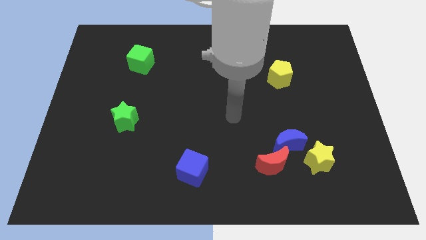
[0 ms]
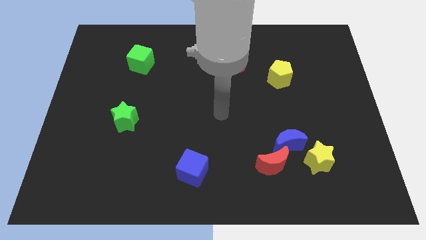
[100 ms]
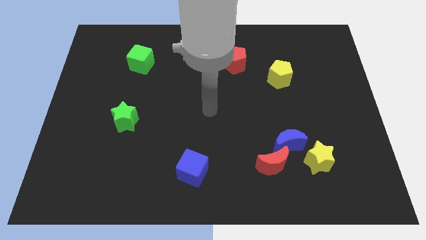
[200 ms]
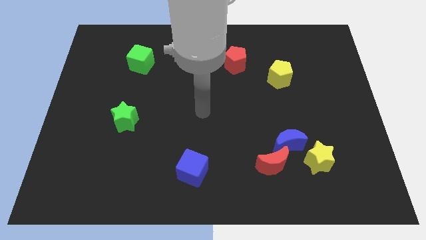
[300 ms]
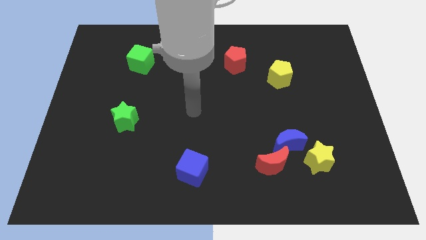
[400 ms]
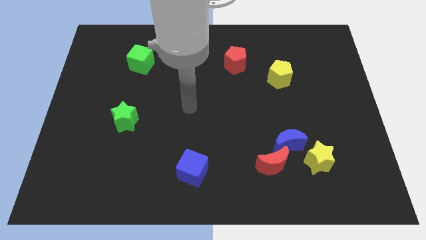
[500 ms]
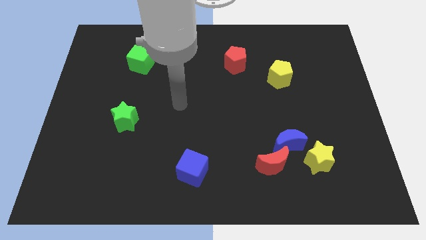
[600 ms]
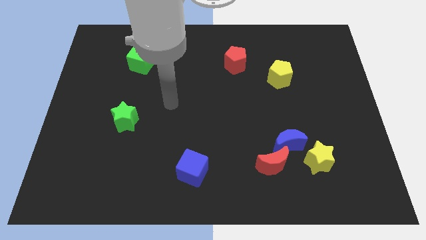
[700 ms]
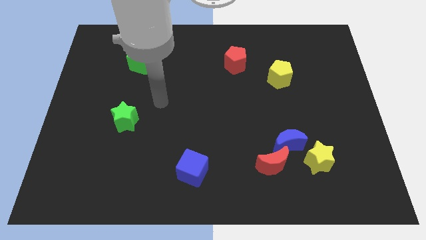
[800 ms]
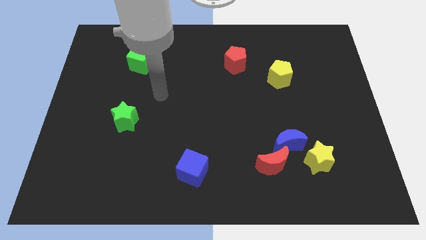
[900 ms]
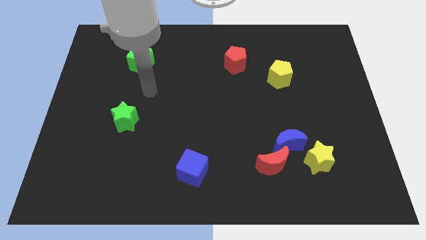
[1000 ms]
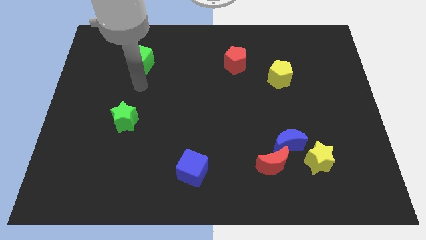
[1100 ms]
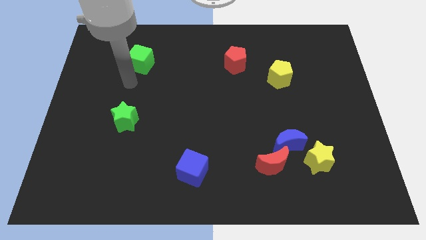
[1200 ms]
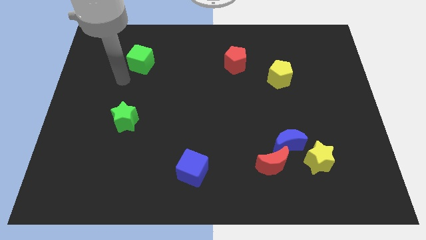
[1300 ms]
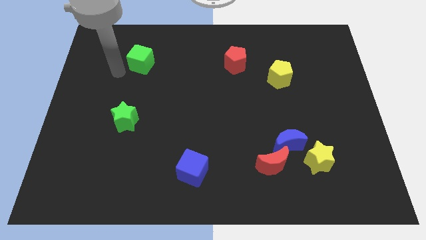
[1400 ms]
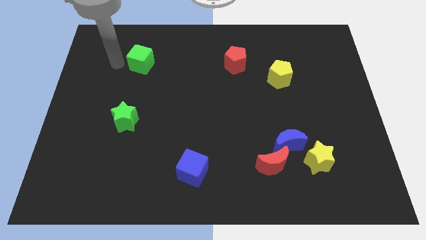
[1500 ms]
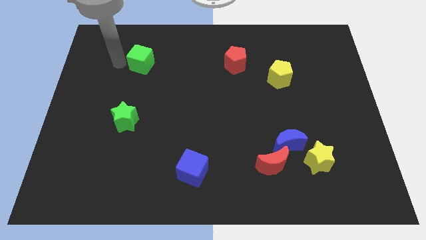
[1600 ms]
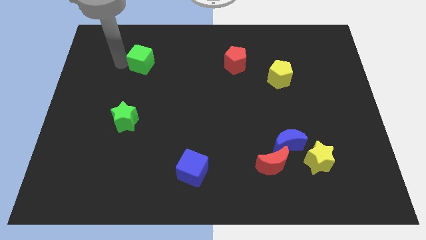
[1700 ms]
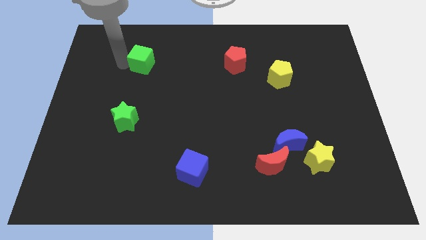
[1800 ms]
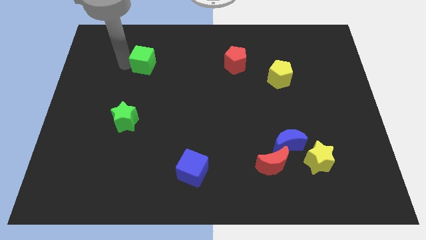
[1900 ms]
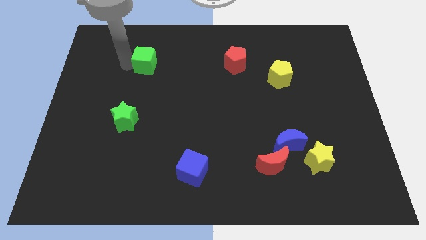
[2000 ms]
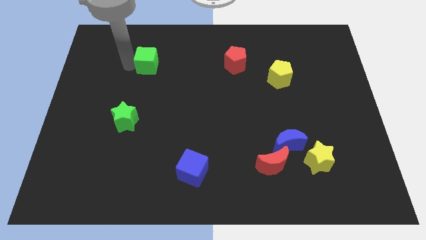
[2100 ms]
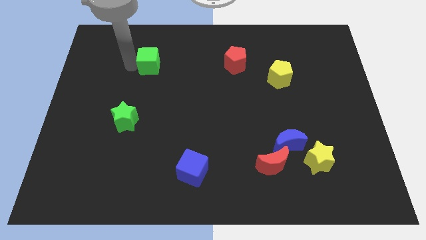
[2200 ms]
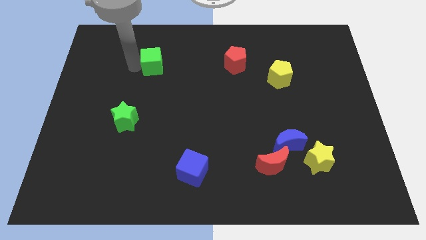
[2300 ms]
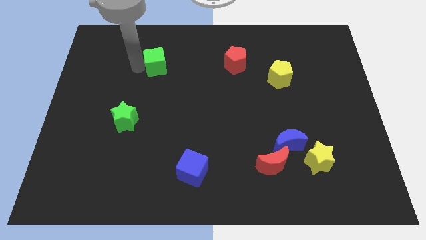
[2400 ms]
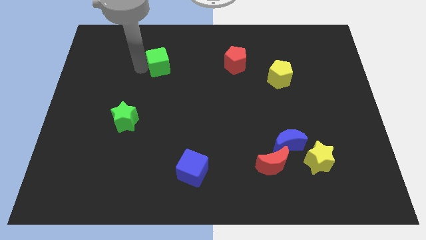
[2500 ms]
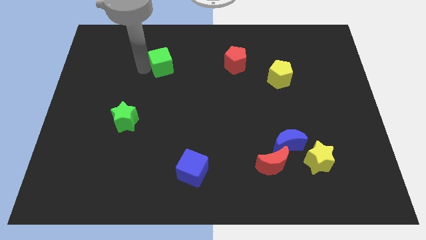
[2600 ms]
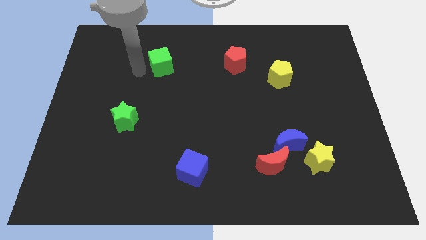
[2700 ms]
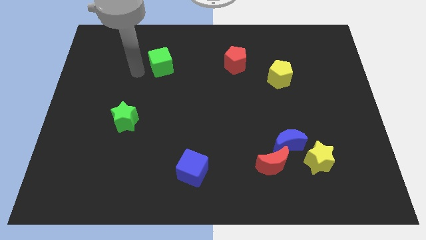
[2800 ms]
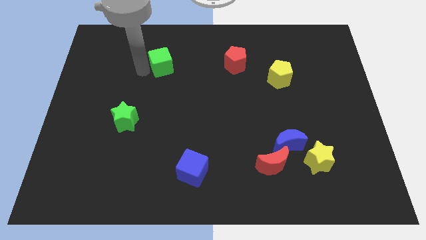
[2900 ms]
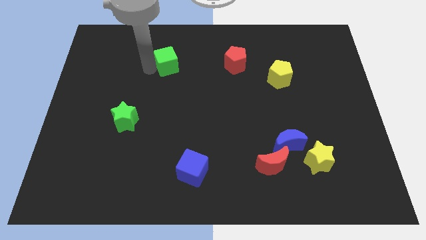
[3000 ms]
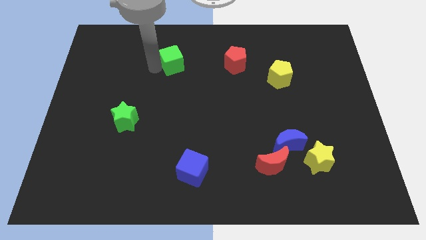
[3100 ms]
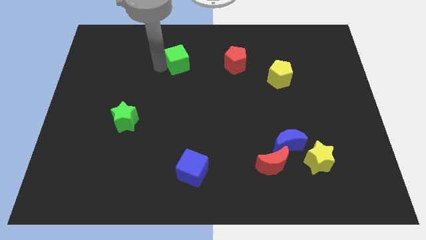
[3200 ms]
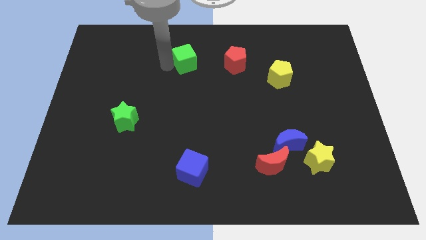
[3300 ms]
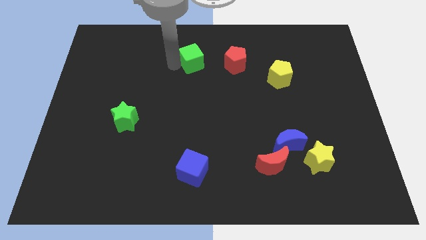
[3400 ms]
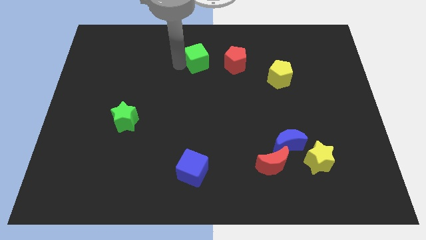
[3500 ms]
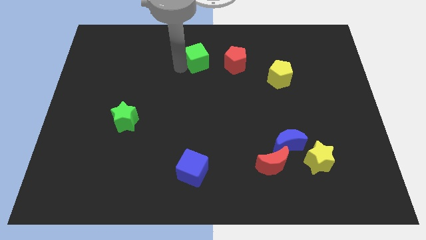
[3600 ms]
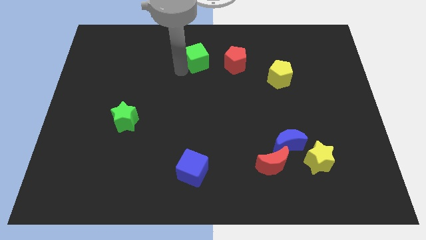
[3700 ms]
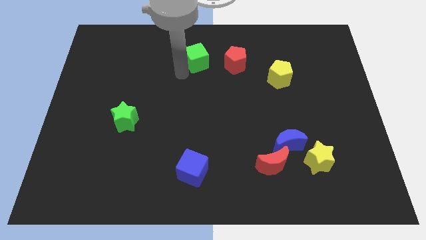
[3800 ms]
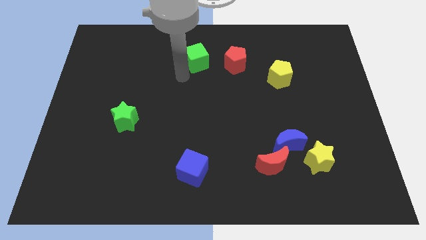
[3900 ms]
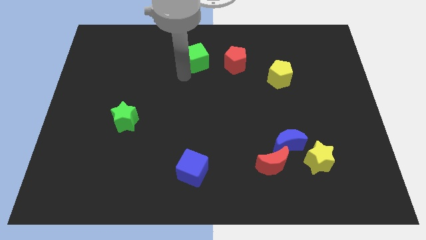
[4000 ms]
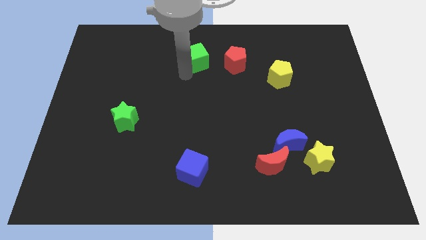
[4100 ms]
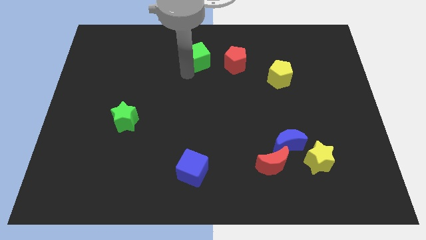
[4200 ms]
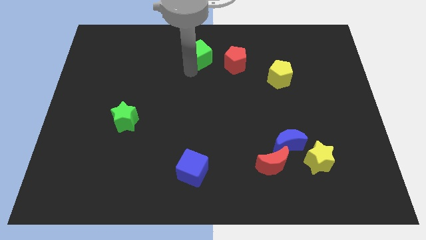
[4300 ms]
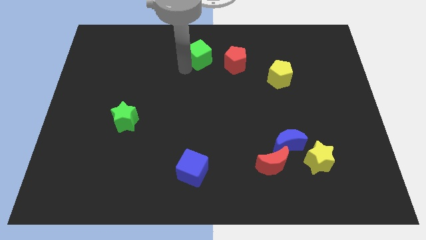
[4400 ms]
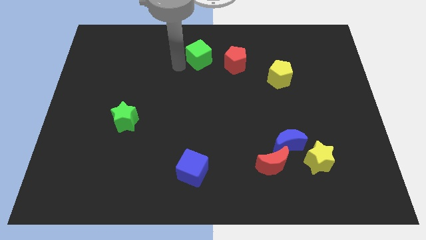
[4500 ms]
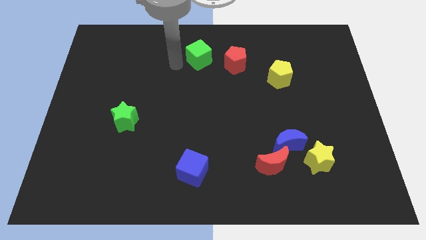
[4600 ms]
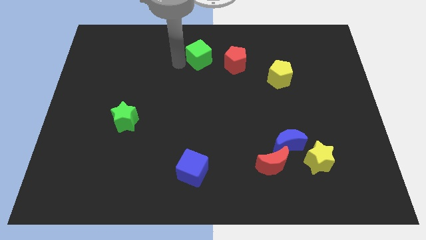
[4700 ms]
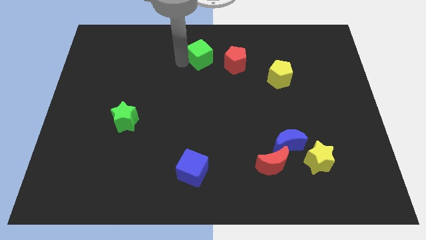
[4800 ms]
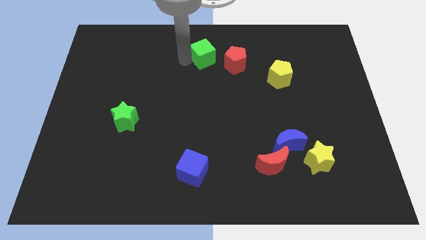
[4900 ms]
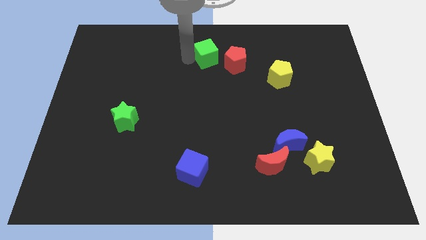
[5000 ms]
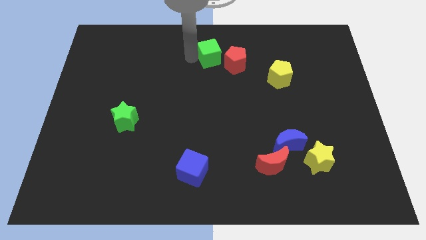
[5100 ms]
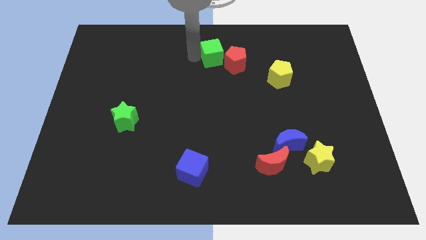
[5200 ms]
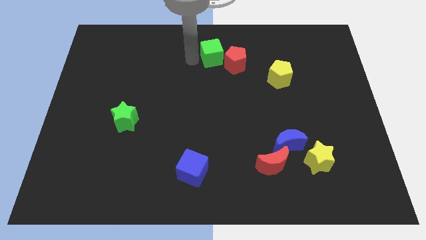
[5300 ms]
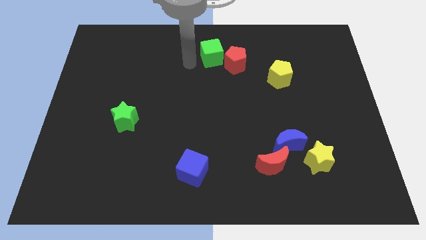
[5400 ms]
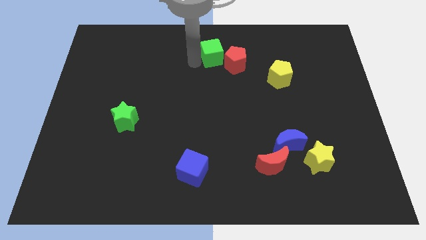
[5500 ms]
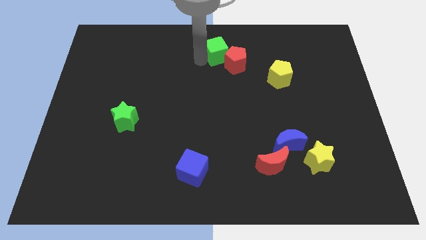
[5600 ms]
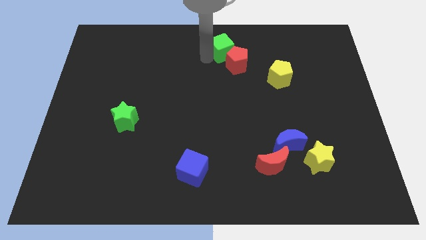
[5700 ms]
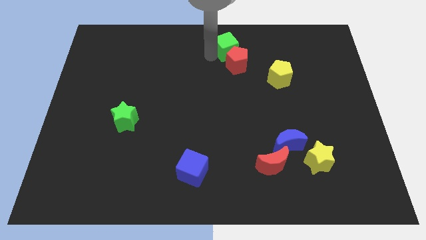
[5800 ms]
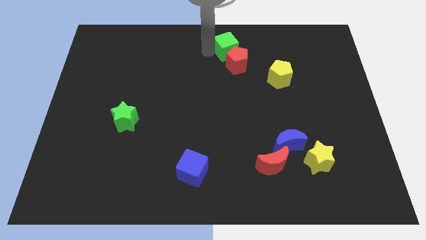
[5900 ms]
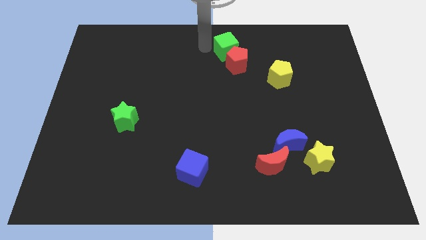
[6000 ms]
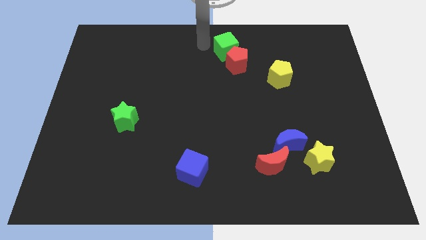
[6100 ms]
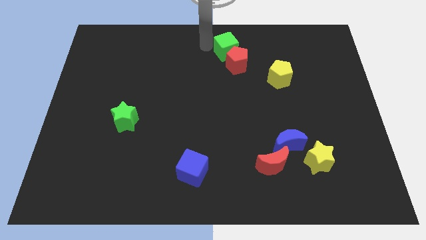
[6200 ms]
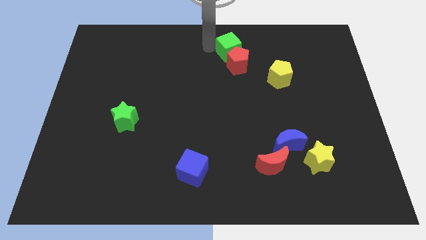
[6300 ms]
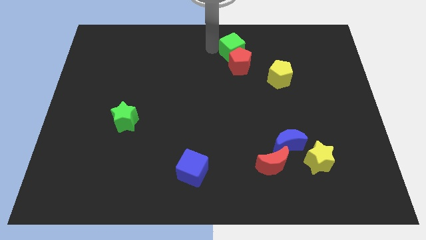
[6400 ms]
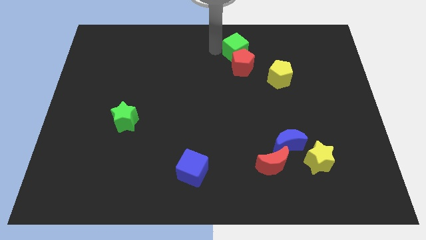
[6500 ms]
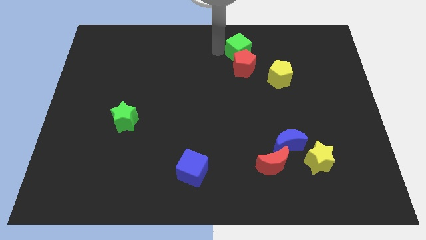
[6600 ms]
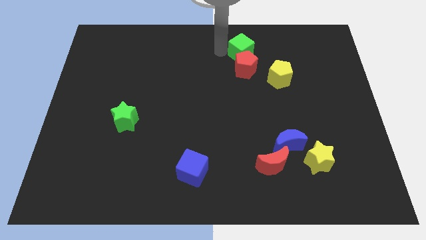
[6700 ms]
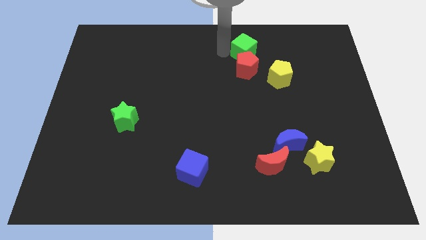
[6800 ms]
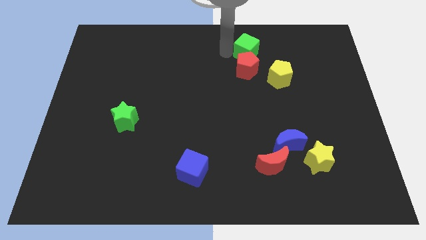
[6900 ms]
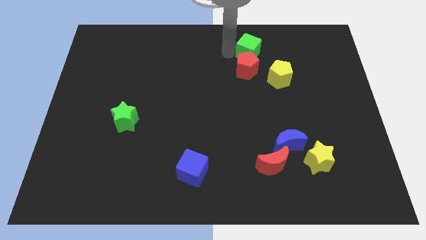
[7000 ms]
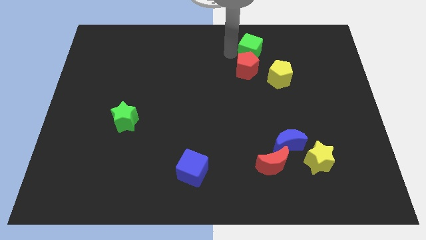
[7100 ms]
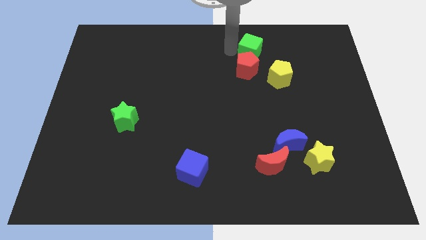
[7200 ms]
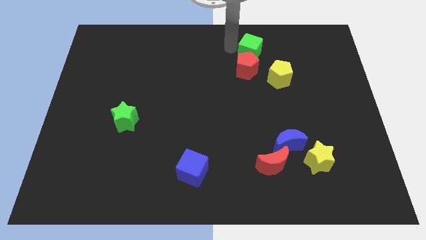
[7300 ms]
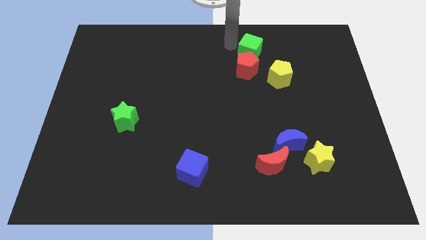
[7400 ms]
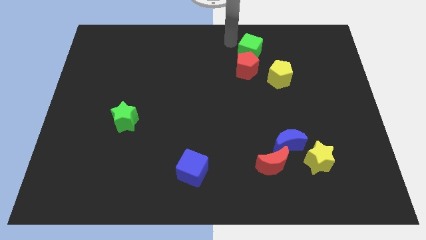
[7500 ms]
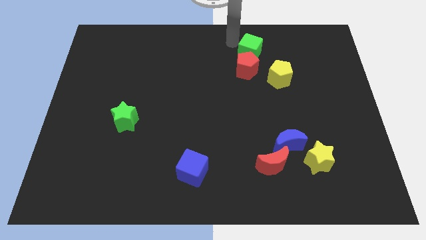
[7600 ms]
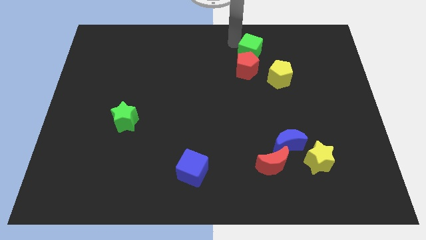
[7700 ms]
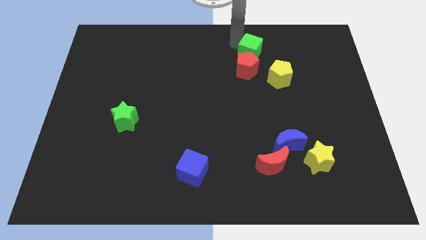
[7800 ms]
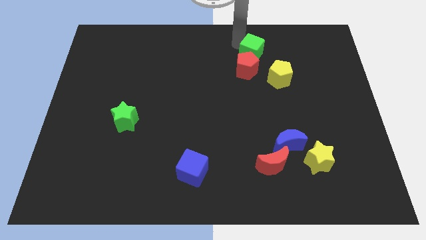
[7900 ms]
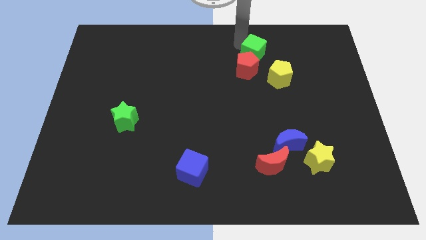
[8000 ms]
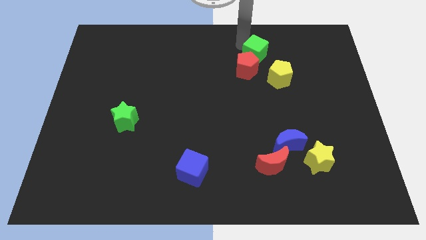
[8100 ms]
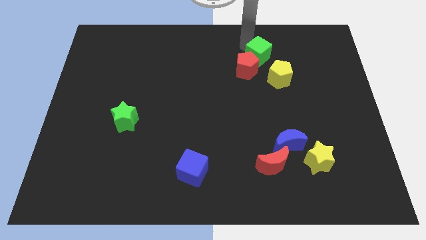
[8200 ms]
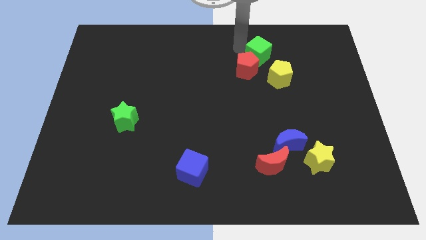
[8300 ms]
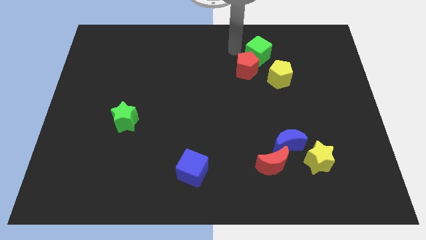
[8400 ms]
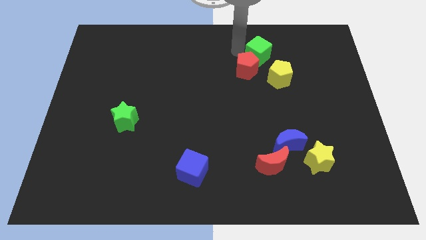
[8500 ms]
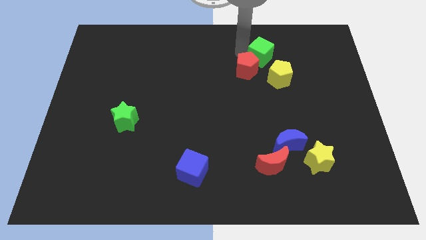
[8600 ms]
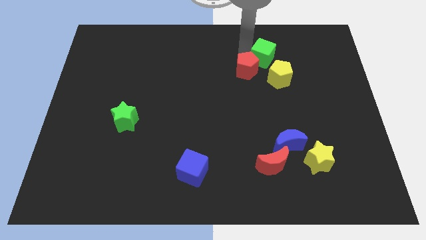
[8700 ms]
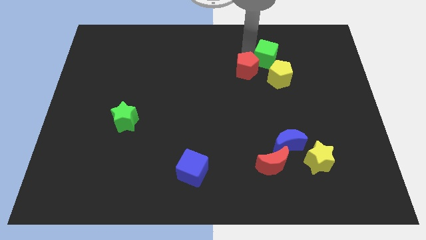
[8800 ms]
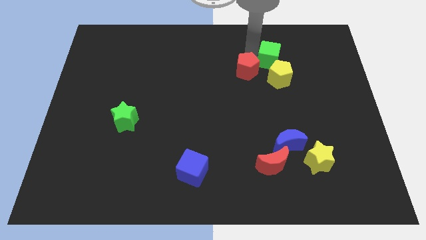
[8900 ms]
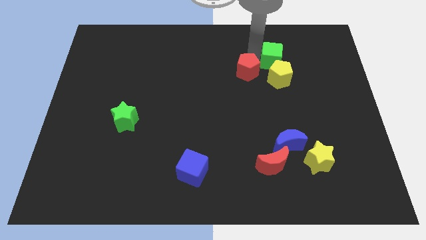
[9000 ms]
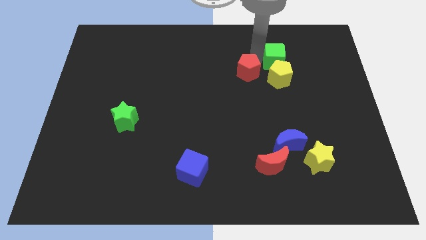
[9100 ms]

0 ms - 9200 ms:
move the green cube to the top right of the yellow pentagon
